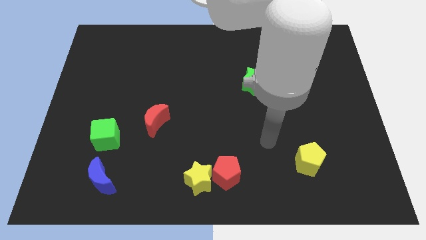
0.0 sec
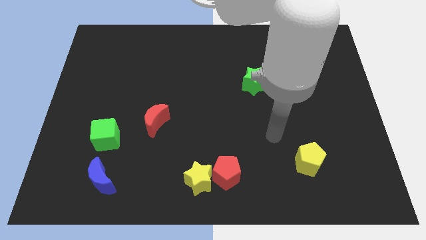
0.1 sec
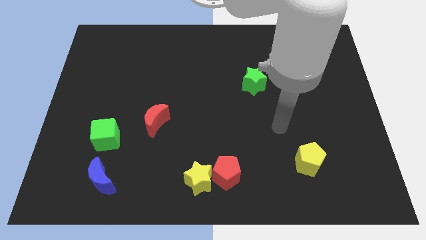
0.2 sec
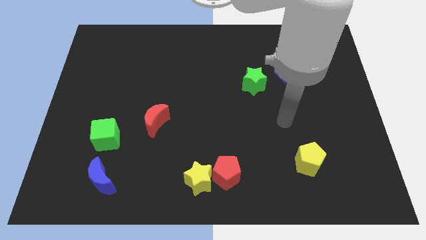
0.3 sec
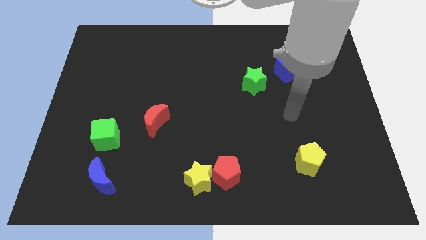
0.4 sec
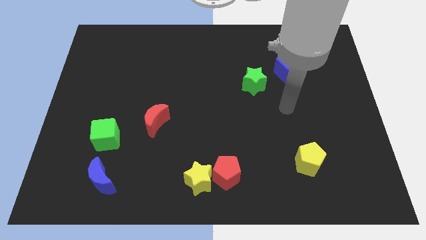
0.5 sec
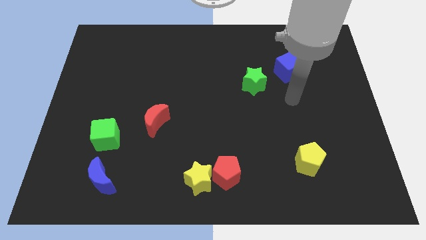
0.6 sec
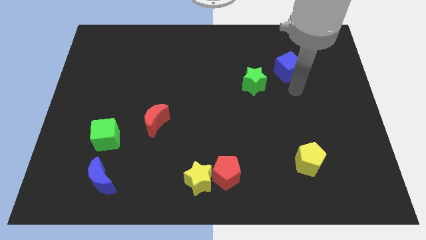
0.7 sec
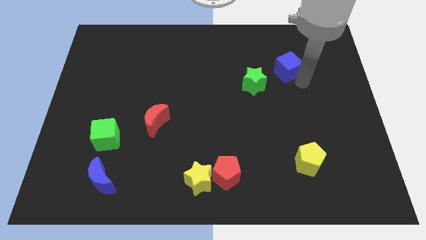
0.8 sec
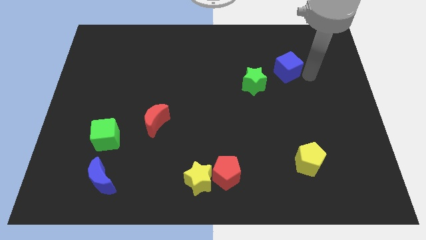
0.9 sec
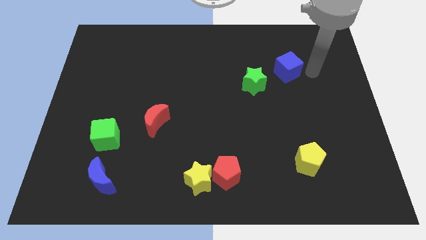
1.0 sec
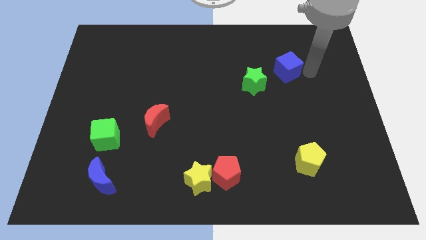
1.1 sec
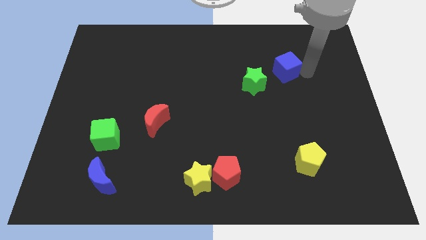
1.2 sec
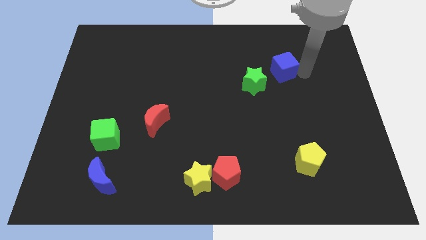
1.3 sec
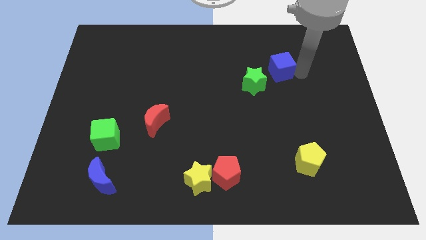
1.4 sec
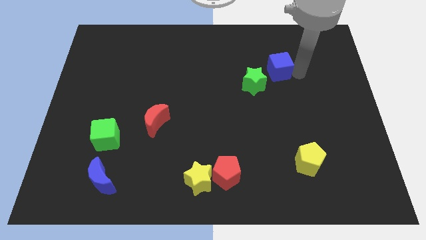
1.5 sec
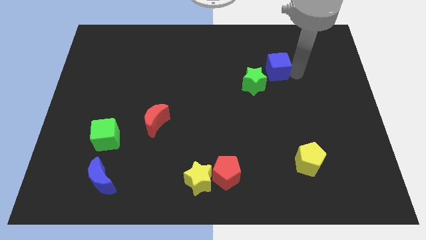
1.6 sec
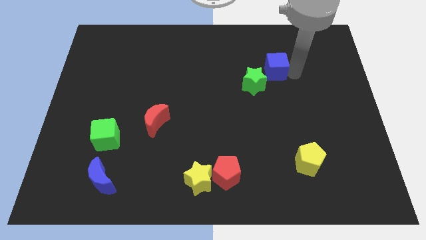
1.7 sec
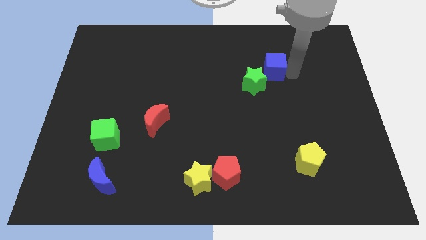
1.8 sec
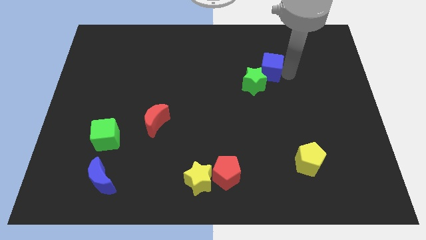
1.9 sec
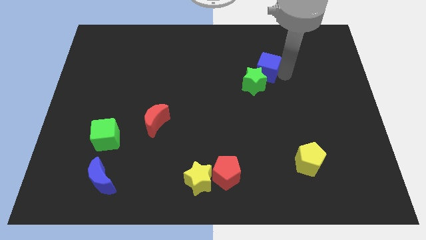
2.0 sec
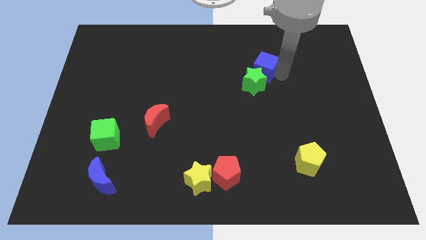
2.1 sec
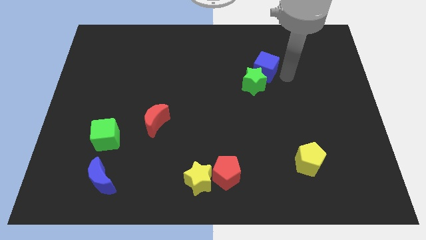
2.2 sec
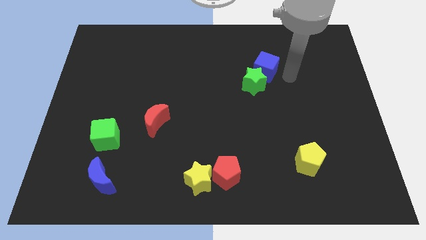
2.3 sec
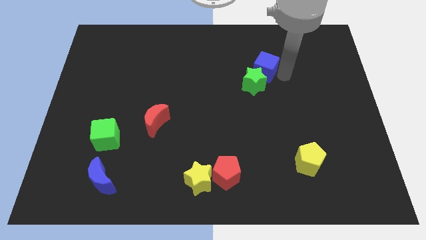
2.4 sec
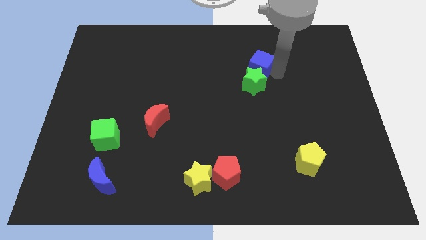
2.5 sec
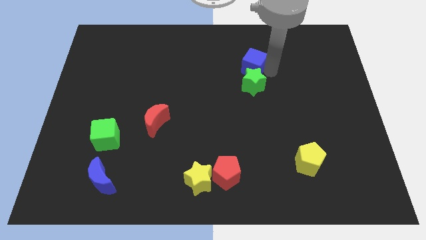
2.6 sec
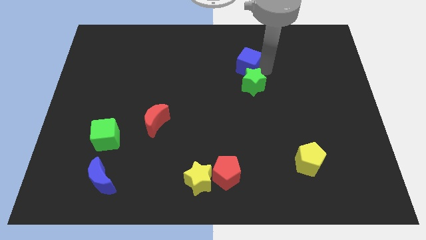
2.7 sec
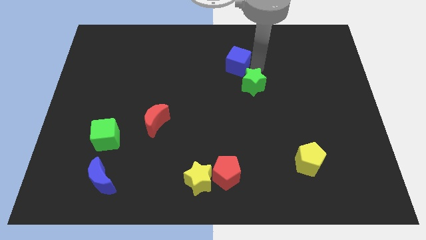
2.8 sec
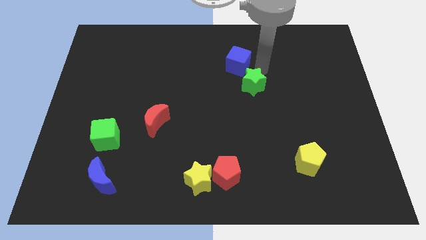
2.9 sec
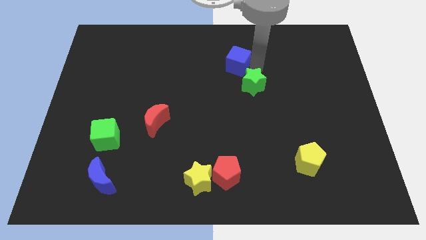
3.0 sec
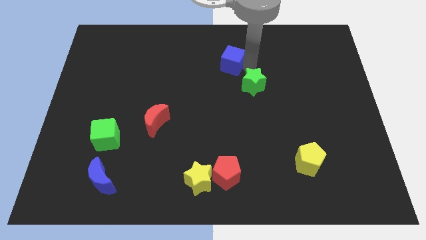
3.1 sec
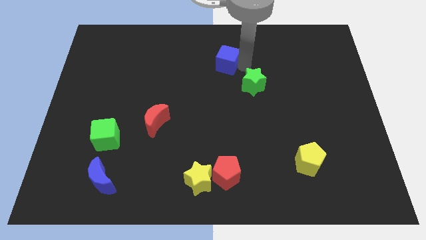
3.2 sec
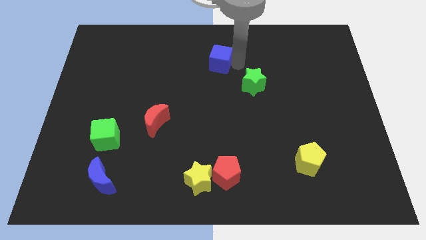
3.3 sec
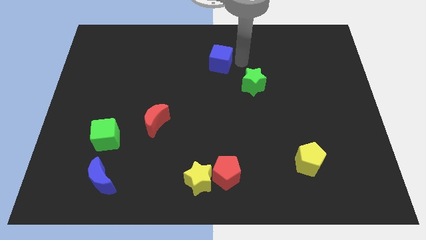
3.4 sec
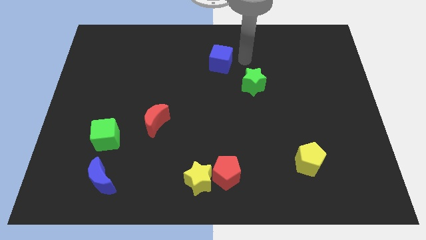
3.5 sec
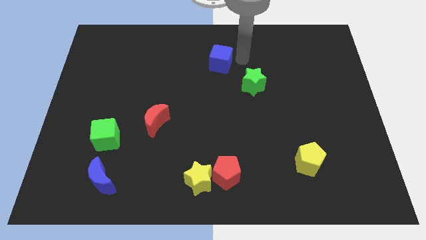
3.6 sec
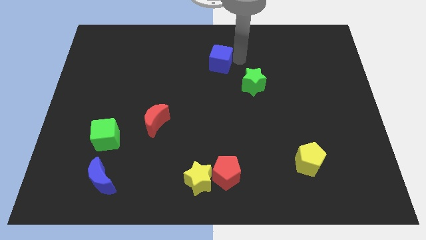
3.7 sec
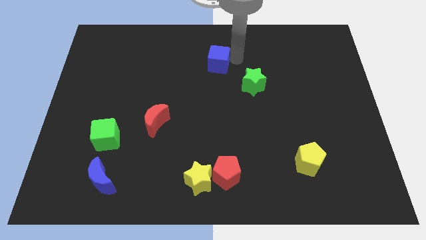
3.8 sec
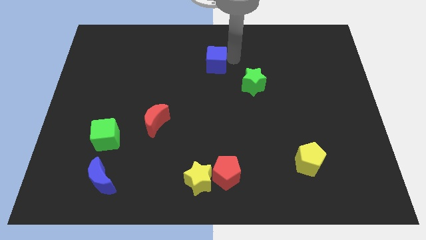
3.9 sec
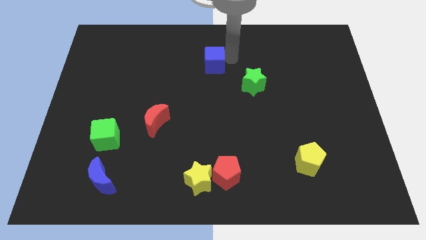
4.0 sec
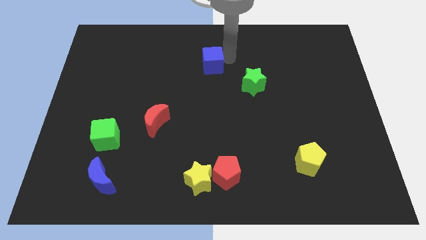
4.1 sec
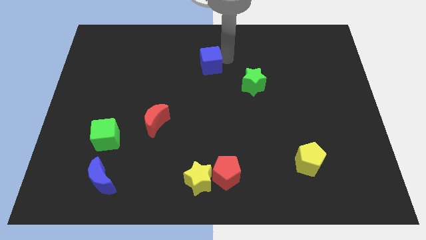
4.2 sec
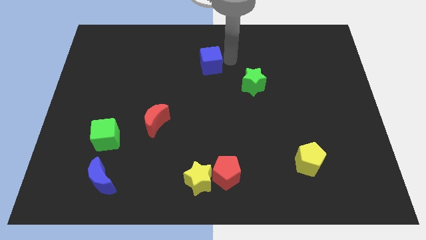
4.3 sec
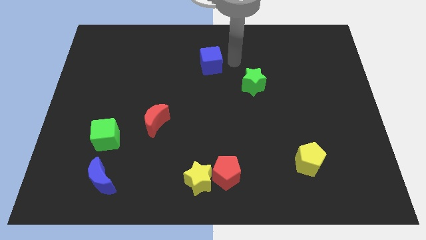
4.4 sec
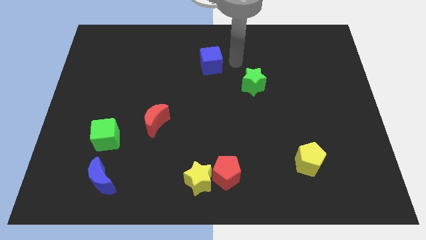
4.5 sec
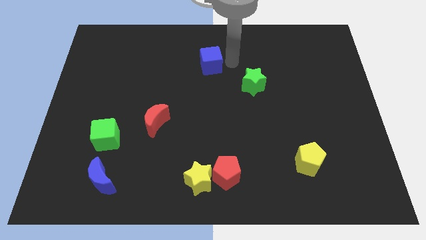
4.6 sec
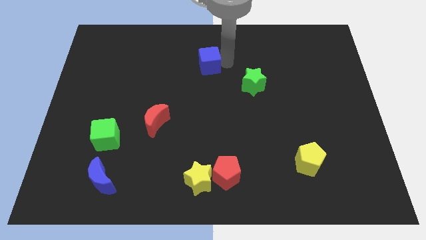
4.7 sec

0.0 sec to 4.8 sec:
push the blue cube left

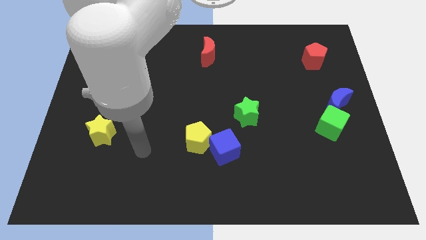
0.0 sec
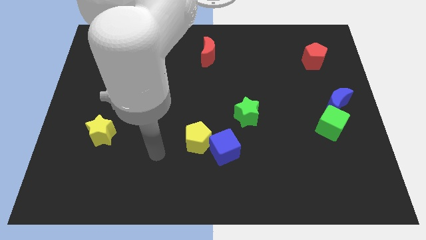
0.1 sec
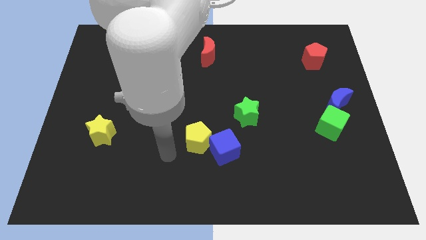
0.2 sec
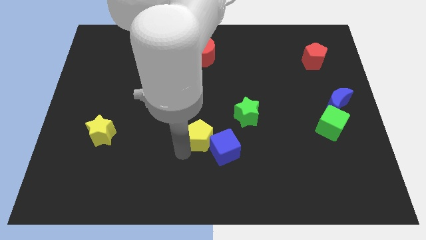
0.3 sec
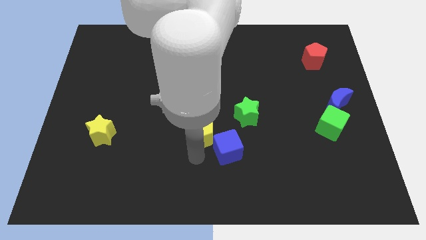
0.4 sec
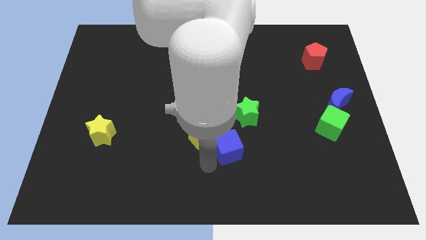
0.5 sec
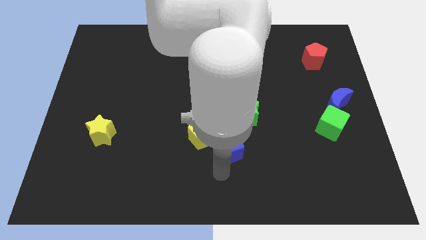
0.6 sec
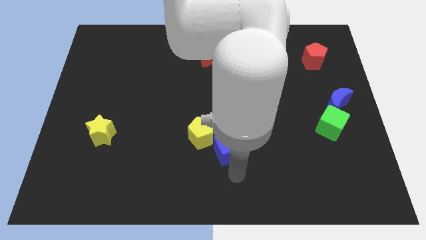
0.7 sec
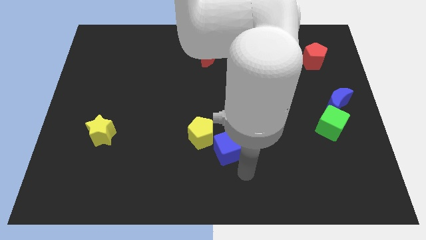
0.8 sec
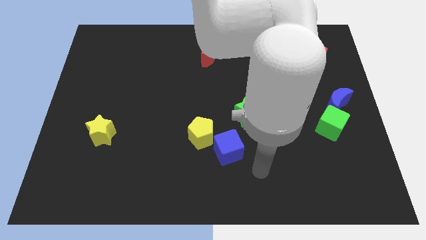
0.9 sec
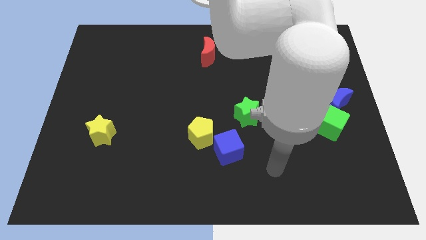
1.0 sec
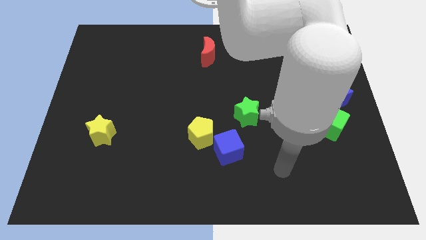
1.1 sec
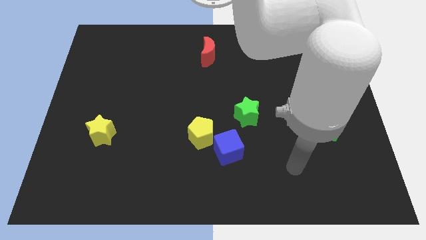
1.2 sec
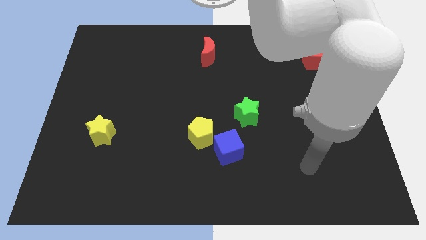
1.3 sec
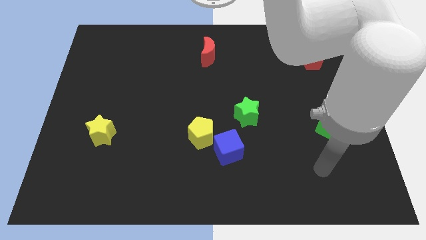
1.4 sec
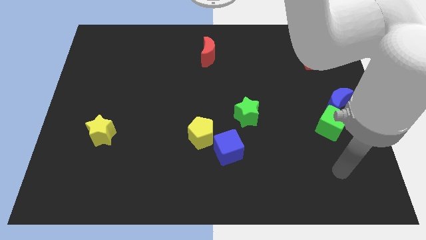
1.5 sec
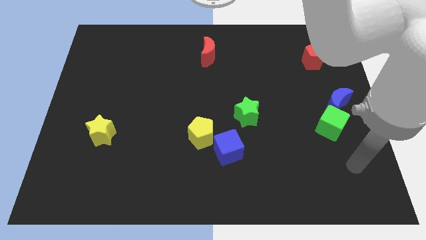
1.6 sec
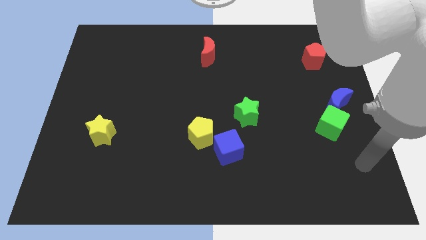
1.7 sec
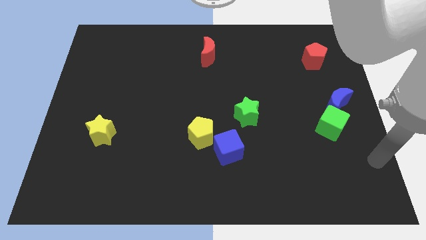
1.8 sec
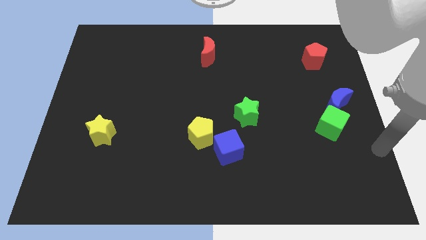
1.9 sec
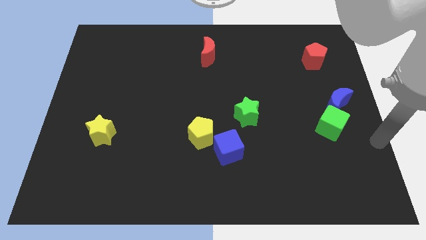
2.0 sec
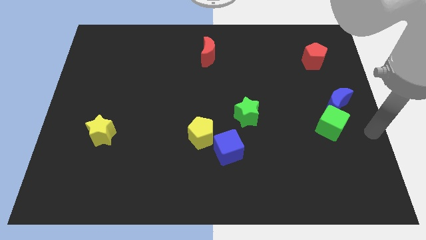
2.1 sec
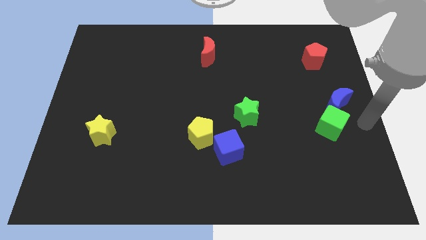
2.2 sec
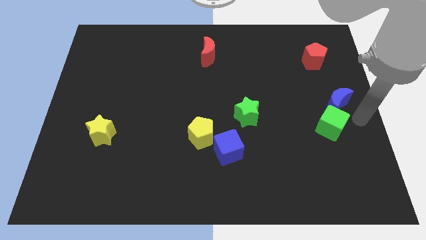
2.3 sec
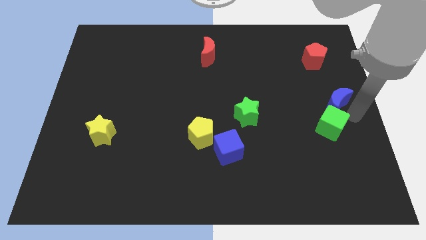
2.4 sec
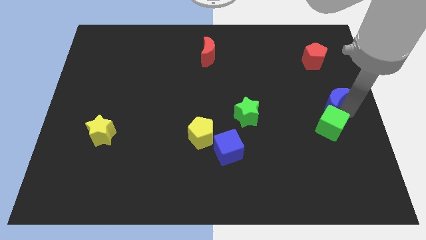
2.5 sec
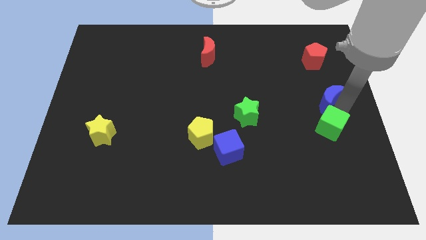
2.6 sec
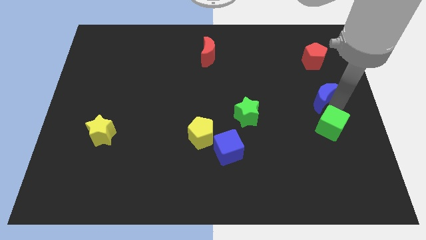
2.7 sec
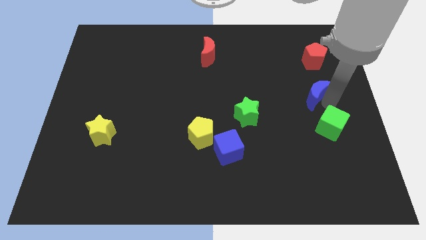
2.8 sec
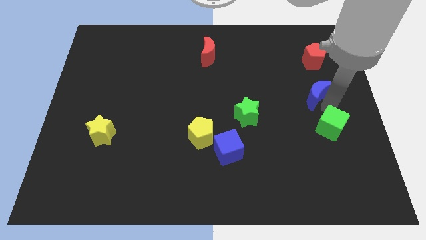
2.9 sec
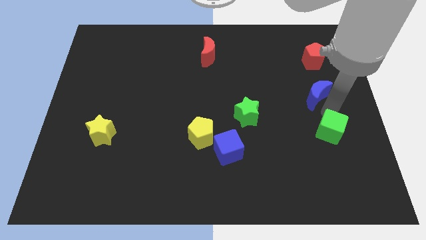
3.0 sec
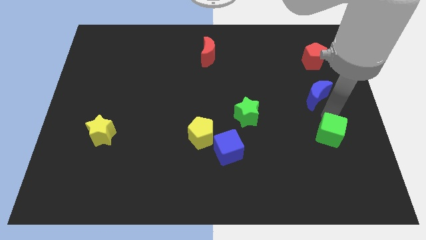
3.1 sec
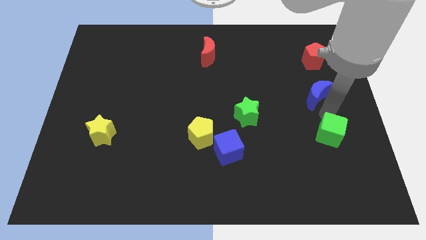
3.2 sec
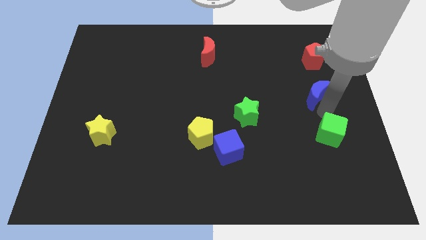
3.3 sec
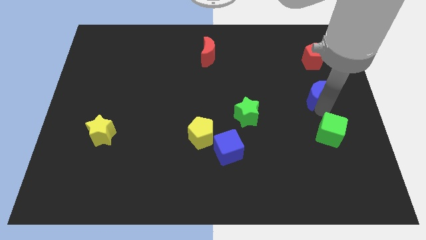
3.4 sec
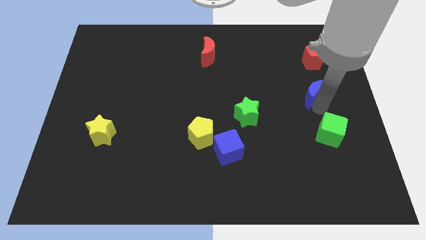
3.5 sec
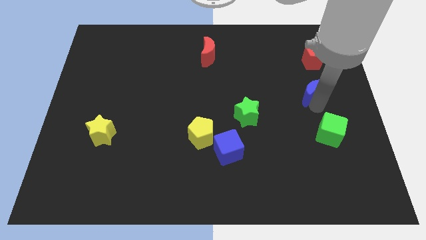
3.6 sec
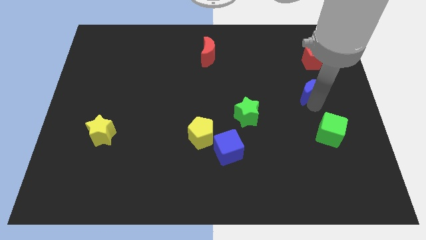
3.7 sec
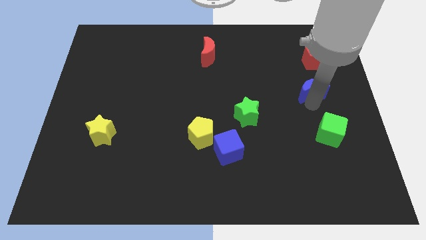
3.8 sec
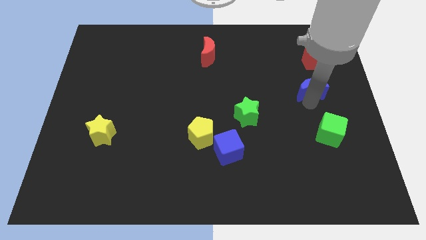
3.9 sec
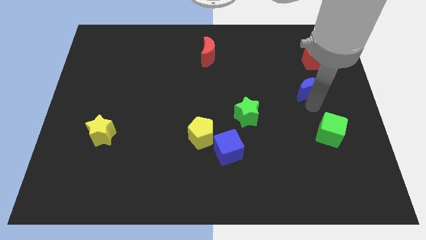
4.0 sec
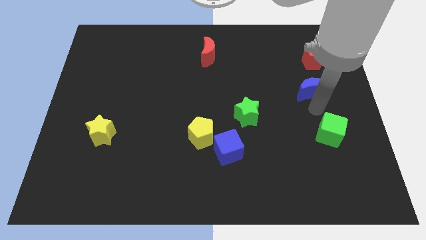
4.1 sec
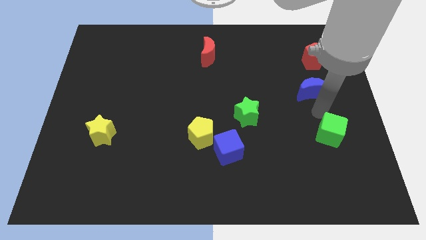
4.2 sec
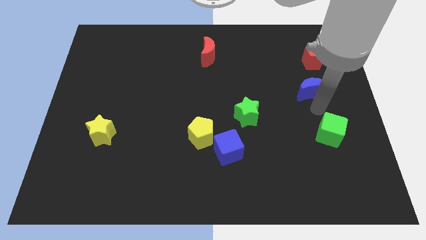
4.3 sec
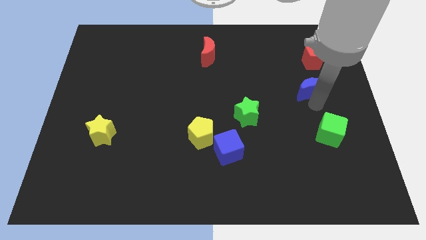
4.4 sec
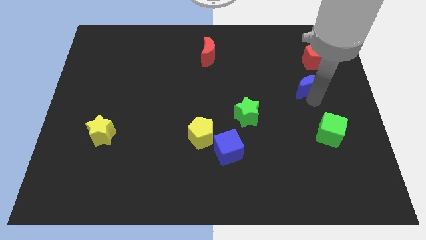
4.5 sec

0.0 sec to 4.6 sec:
push the blue moon a little bit up and then to the left
